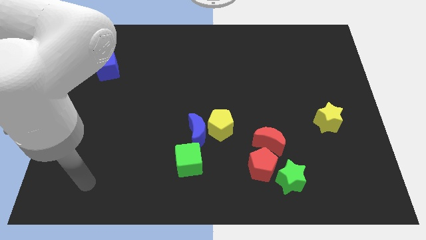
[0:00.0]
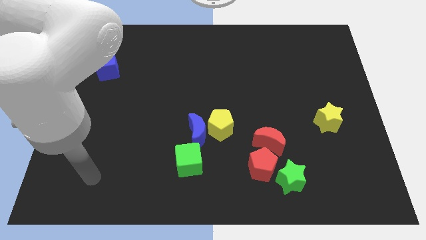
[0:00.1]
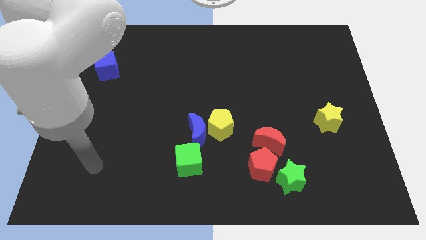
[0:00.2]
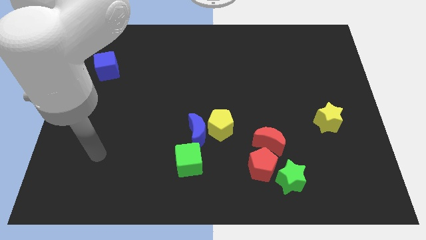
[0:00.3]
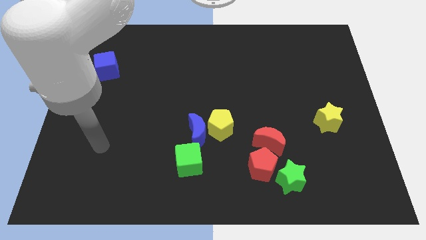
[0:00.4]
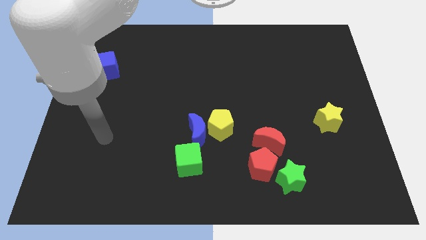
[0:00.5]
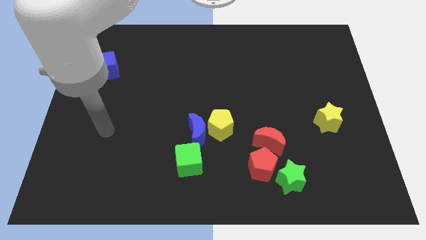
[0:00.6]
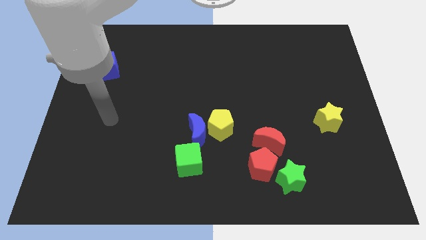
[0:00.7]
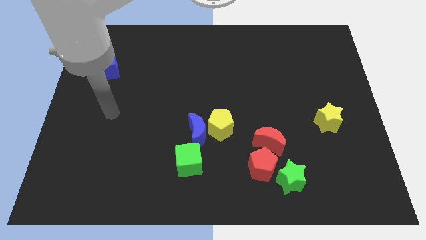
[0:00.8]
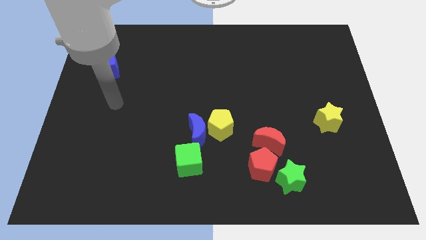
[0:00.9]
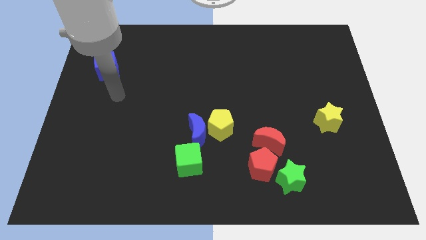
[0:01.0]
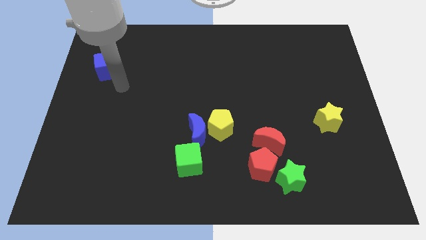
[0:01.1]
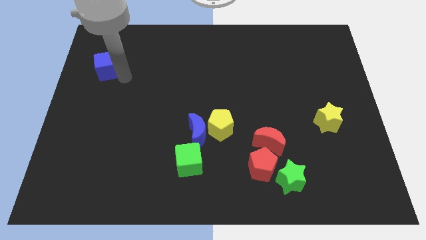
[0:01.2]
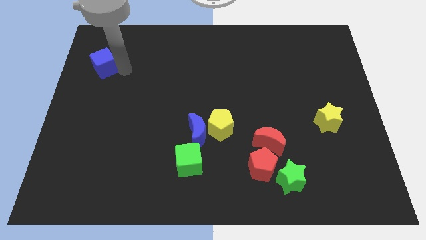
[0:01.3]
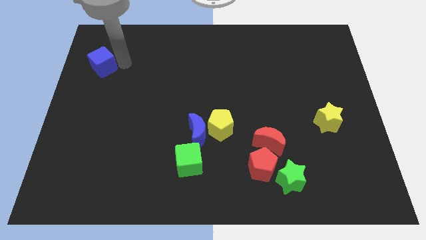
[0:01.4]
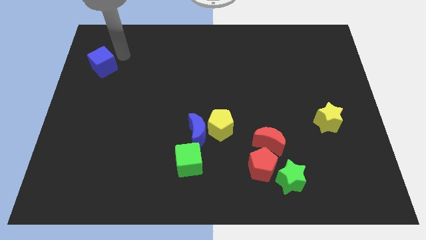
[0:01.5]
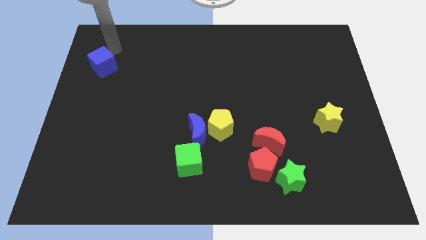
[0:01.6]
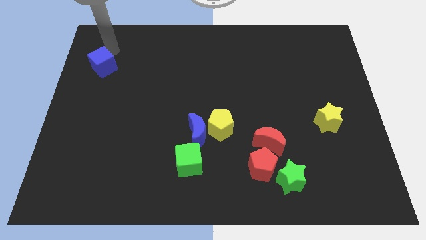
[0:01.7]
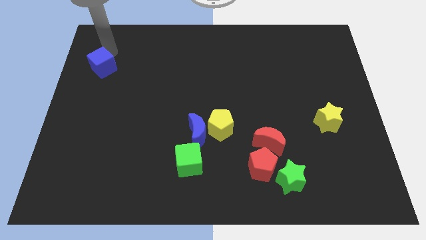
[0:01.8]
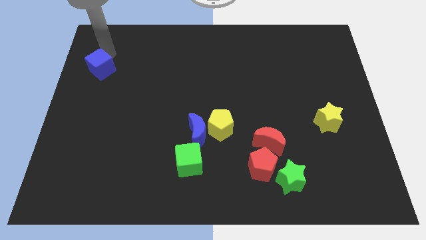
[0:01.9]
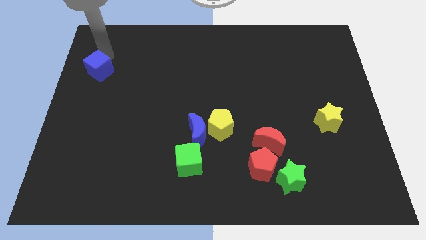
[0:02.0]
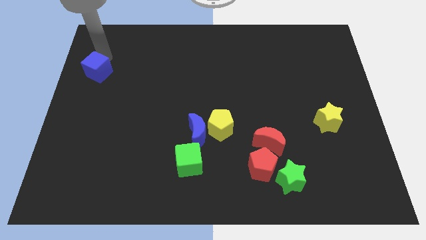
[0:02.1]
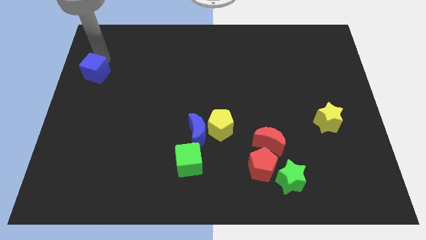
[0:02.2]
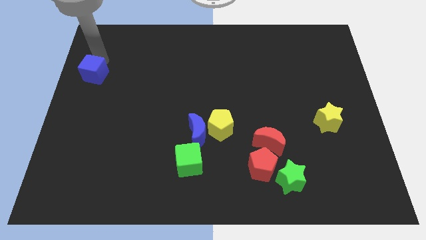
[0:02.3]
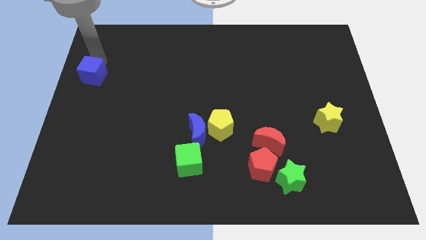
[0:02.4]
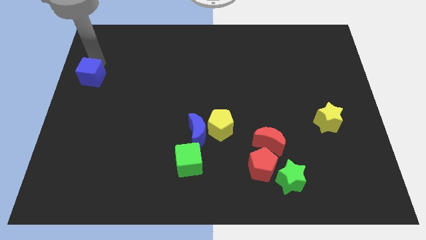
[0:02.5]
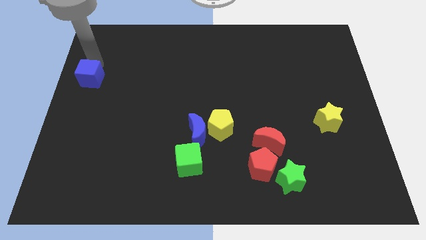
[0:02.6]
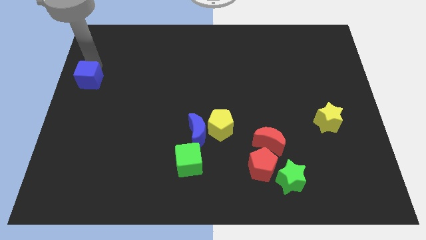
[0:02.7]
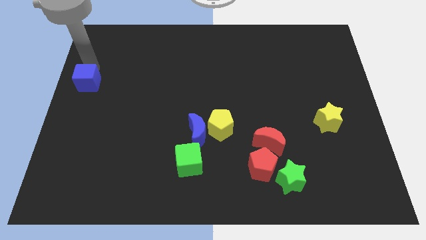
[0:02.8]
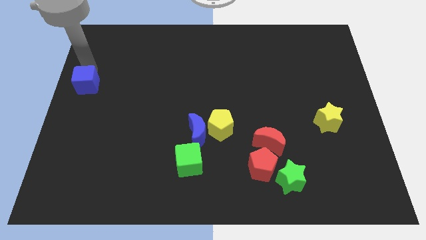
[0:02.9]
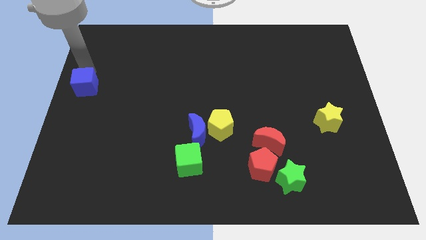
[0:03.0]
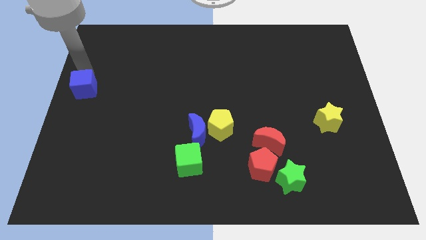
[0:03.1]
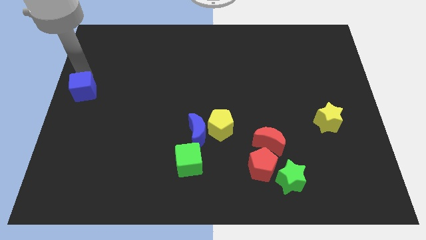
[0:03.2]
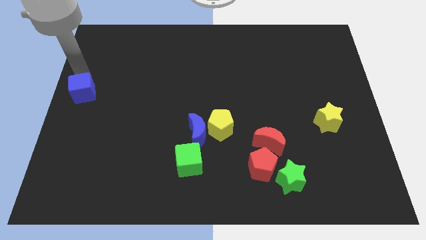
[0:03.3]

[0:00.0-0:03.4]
move the blue cube slightly downwards

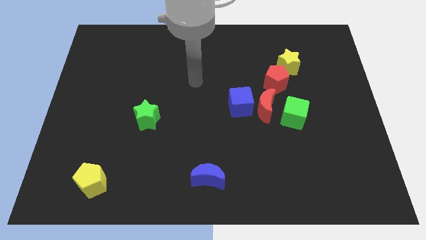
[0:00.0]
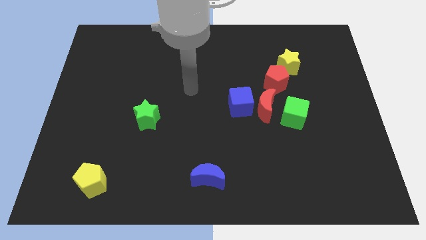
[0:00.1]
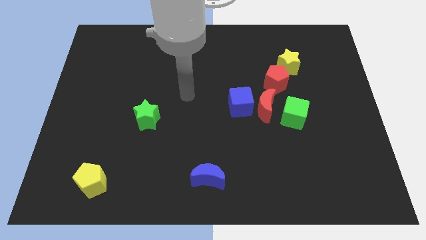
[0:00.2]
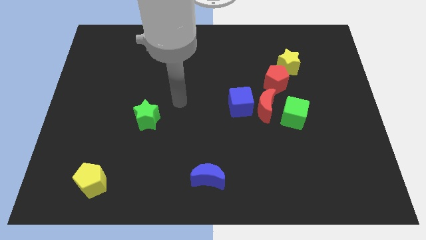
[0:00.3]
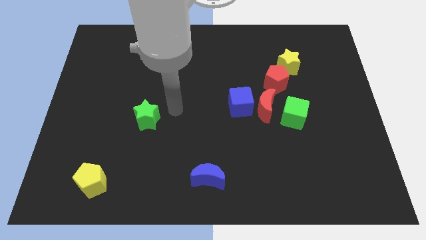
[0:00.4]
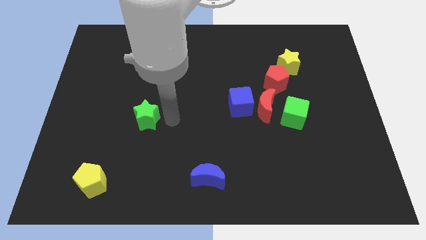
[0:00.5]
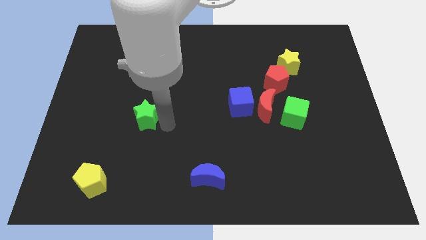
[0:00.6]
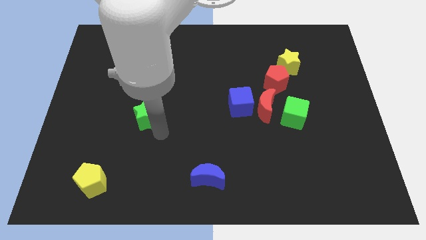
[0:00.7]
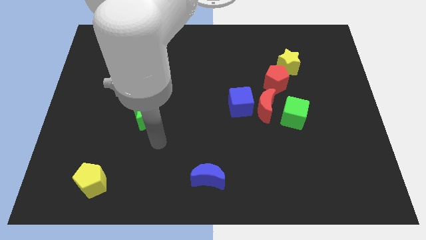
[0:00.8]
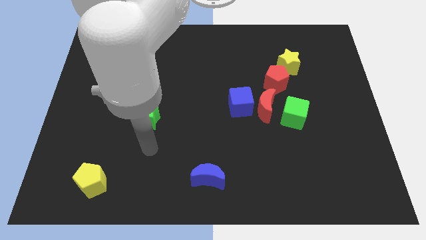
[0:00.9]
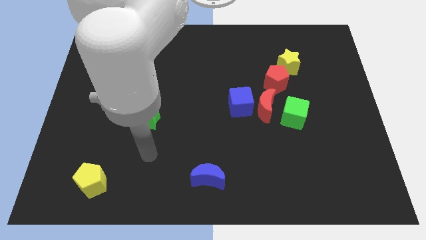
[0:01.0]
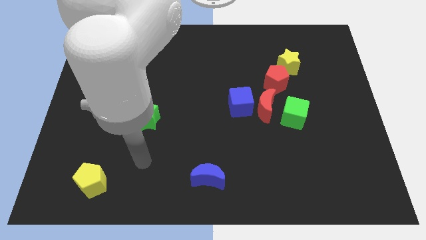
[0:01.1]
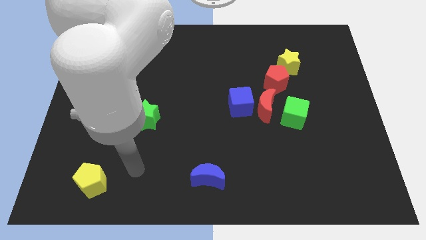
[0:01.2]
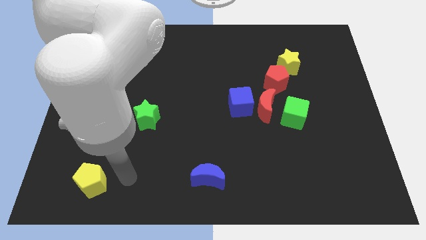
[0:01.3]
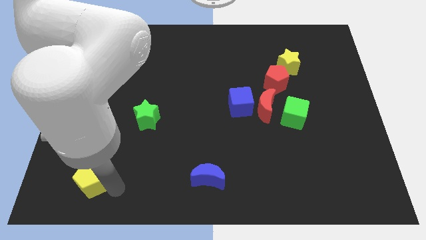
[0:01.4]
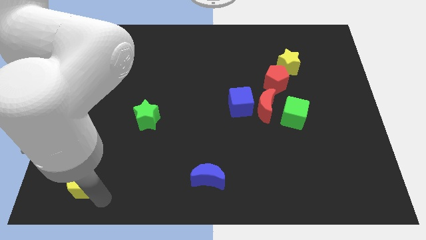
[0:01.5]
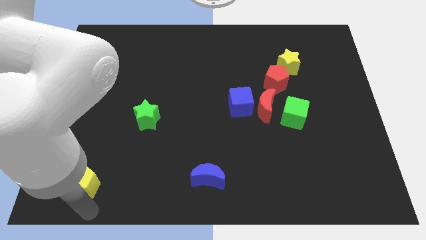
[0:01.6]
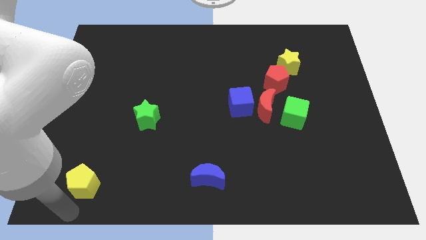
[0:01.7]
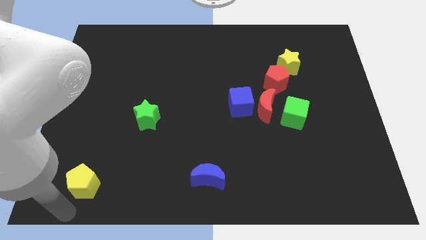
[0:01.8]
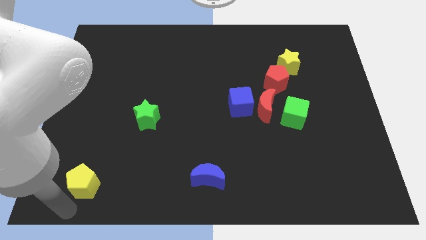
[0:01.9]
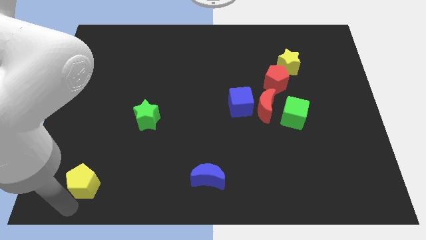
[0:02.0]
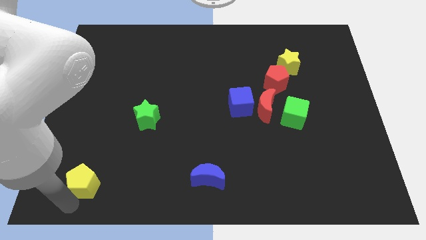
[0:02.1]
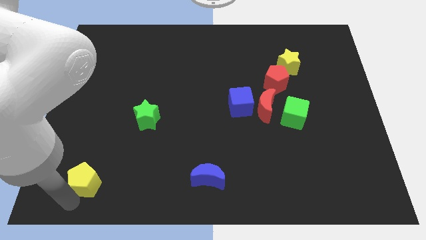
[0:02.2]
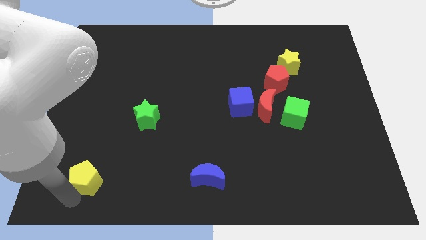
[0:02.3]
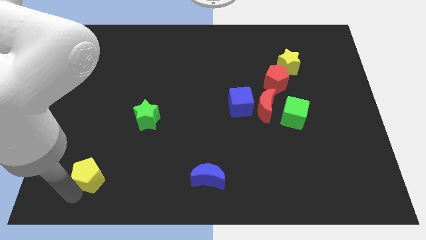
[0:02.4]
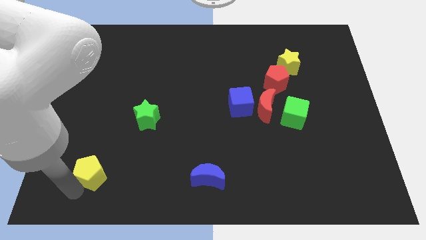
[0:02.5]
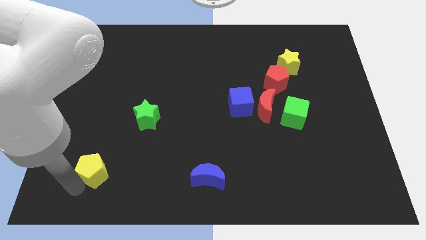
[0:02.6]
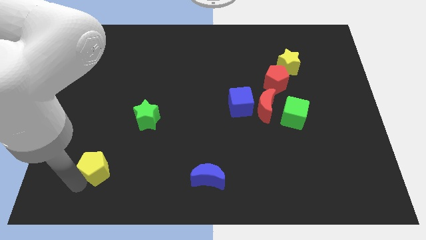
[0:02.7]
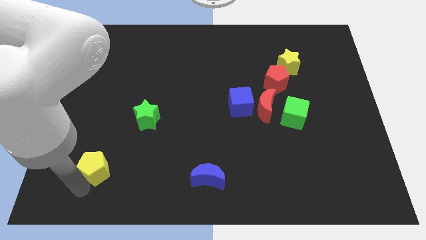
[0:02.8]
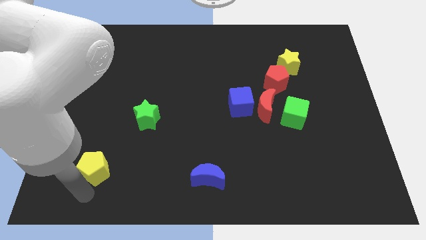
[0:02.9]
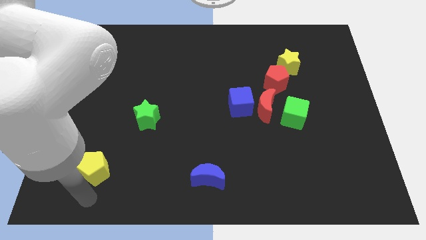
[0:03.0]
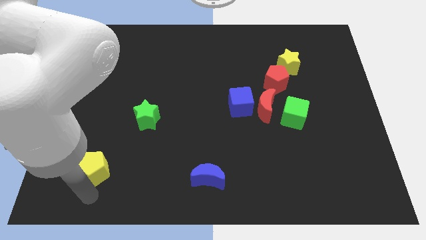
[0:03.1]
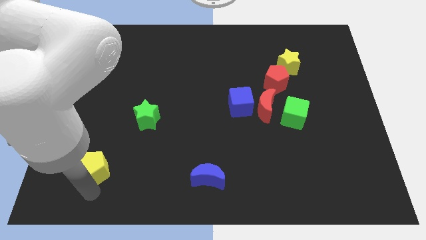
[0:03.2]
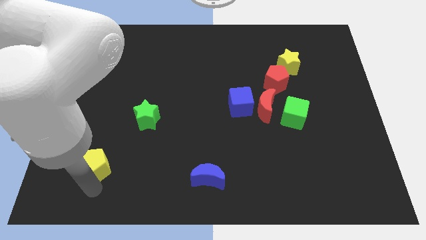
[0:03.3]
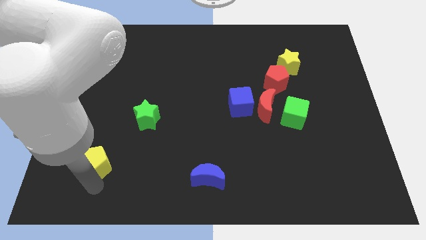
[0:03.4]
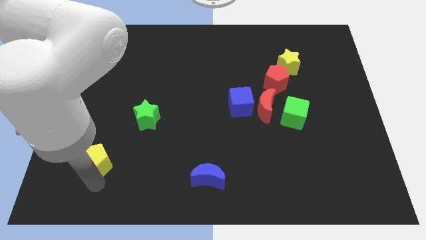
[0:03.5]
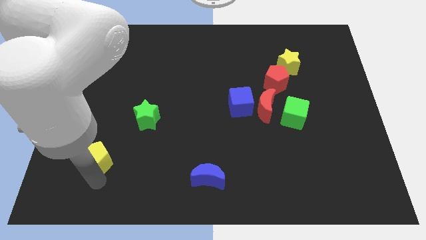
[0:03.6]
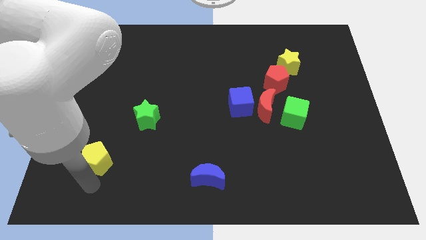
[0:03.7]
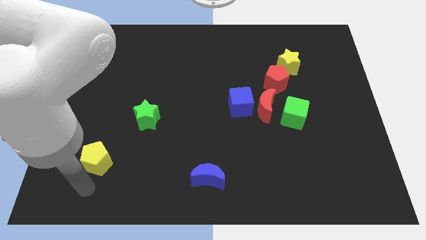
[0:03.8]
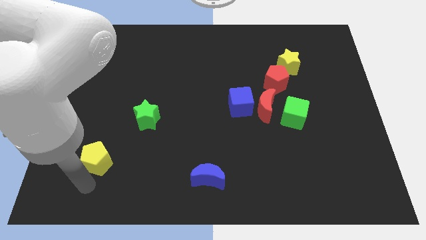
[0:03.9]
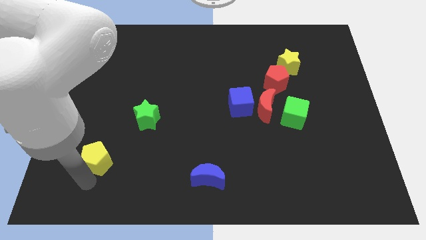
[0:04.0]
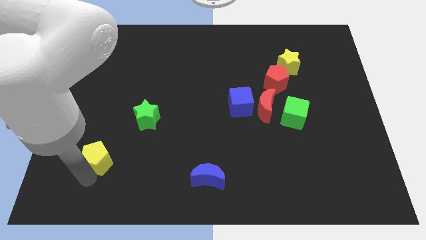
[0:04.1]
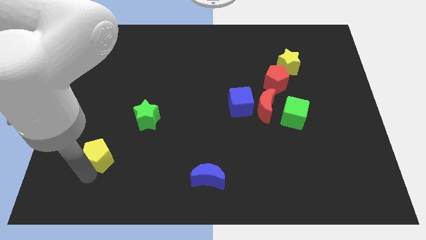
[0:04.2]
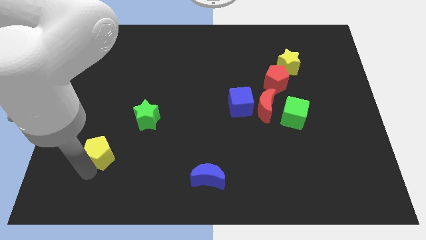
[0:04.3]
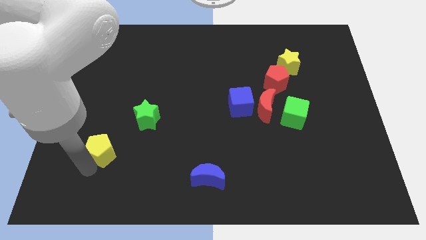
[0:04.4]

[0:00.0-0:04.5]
move the yellow pentagon upwards a little bit
